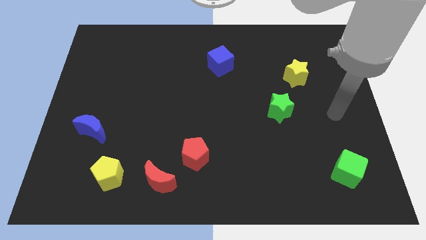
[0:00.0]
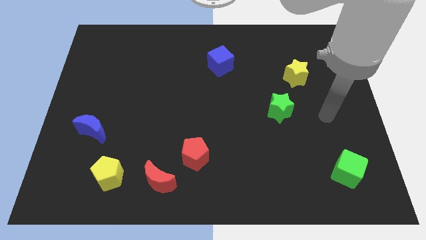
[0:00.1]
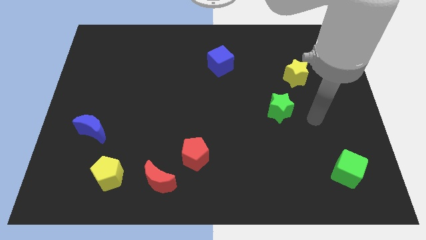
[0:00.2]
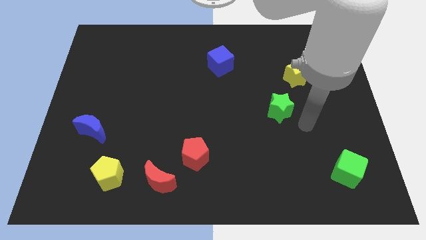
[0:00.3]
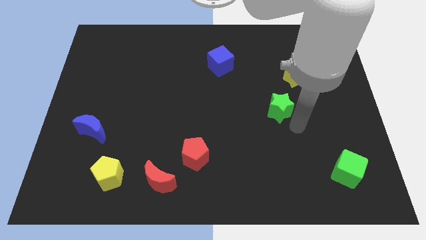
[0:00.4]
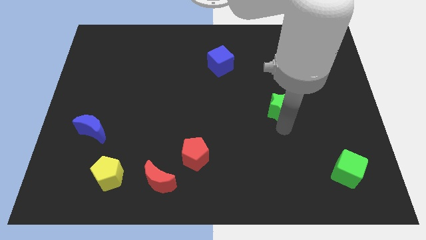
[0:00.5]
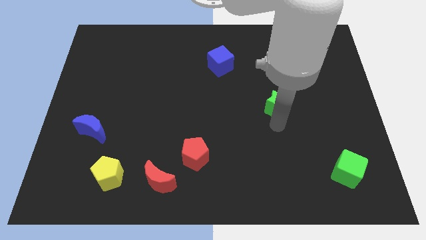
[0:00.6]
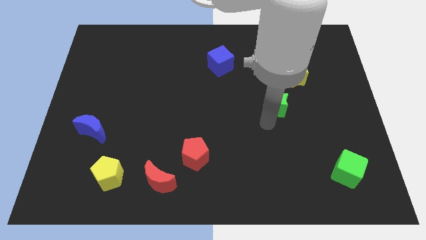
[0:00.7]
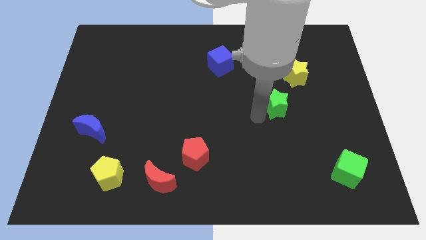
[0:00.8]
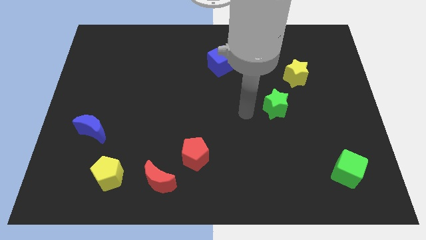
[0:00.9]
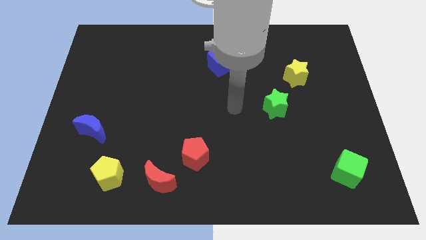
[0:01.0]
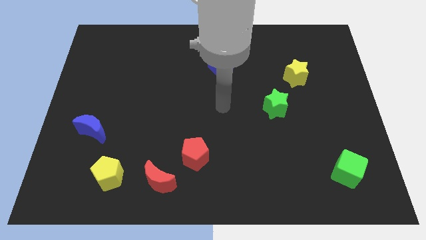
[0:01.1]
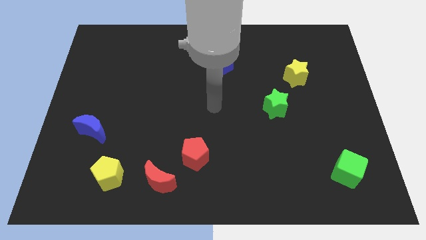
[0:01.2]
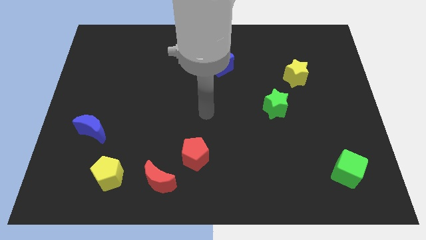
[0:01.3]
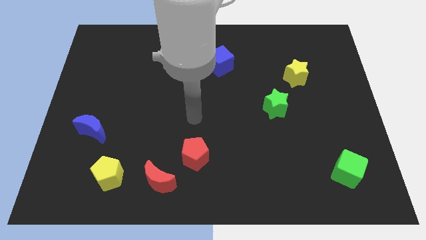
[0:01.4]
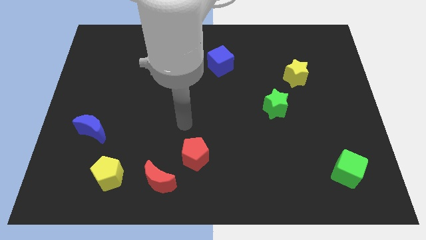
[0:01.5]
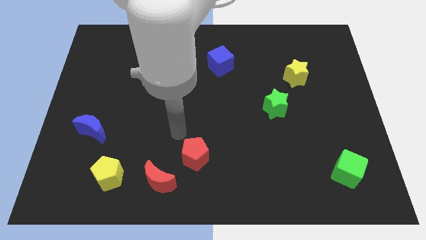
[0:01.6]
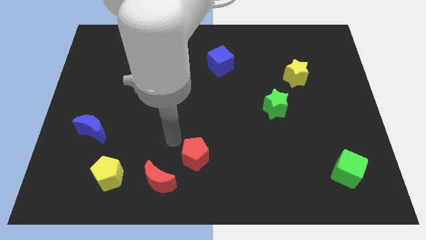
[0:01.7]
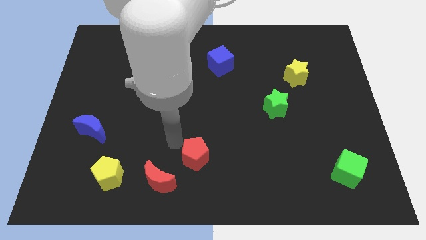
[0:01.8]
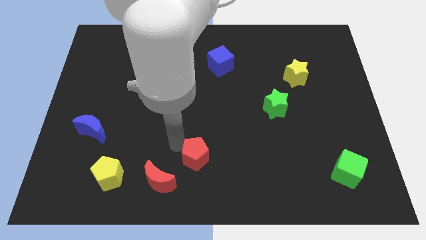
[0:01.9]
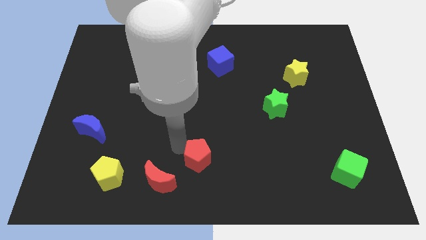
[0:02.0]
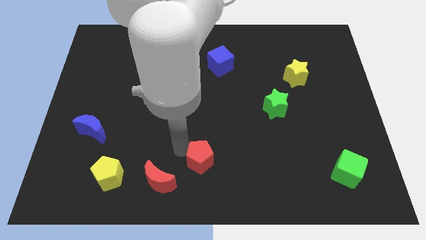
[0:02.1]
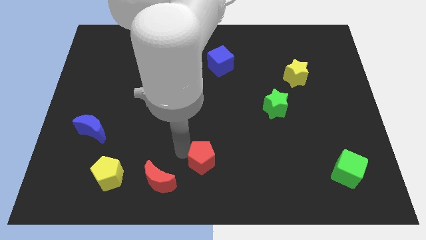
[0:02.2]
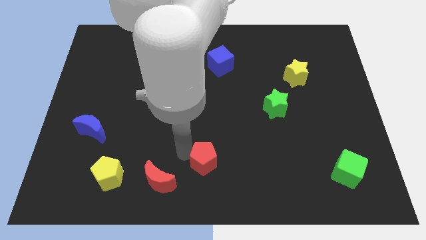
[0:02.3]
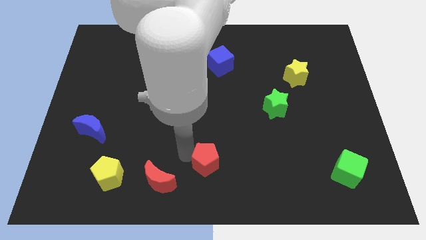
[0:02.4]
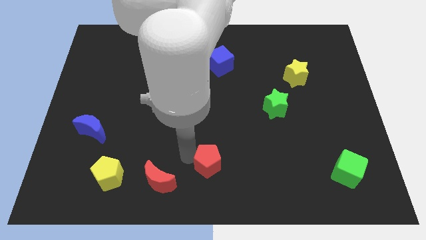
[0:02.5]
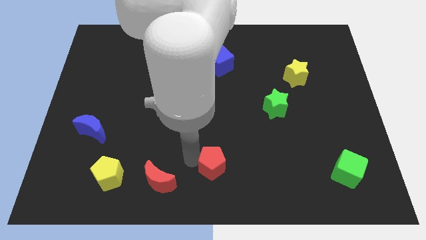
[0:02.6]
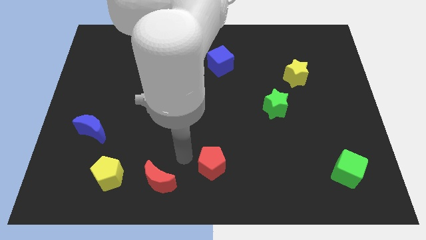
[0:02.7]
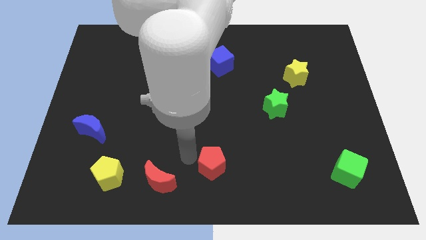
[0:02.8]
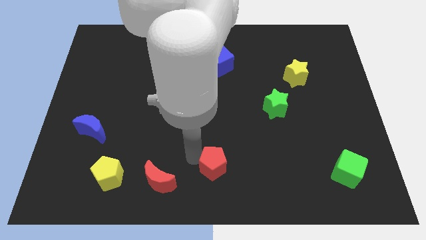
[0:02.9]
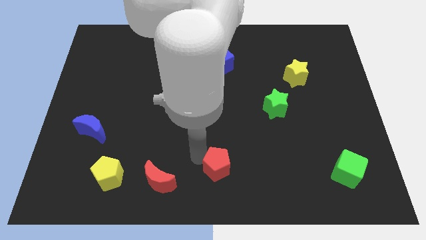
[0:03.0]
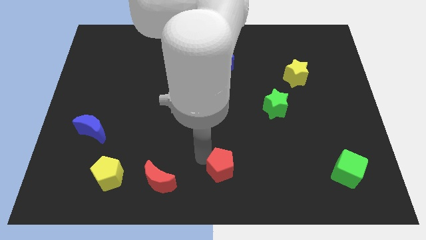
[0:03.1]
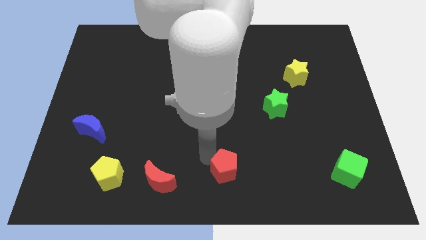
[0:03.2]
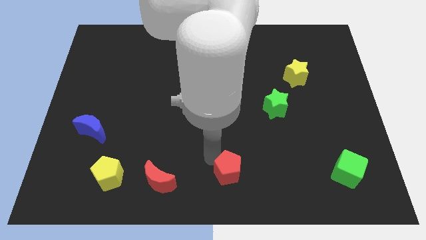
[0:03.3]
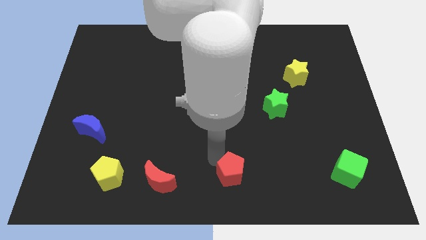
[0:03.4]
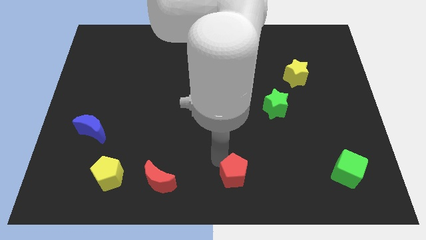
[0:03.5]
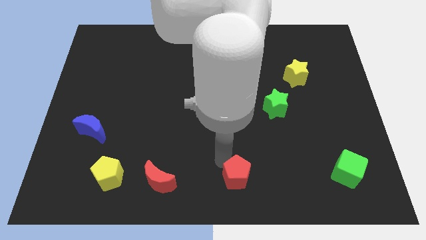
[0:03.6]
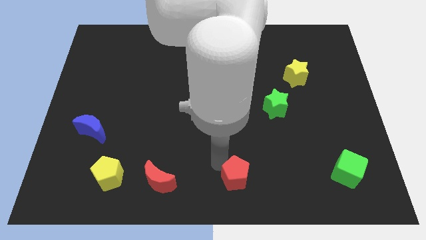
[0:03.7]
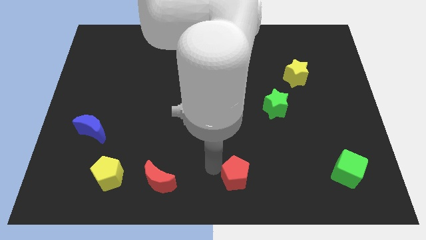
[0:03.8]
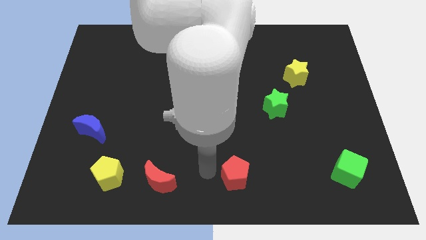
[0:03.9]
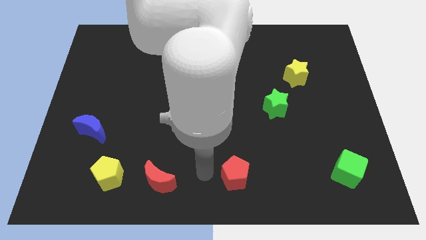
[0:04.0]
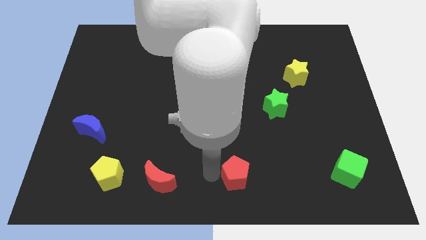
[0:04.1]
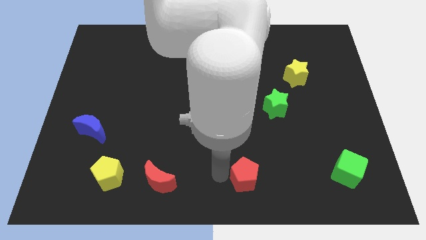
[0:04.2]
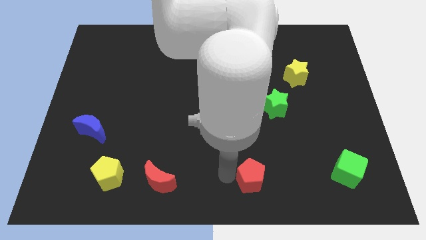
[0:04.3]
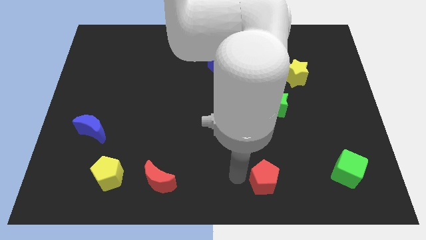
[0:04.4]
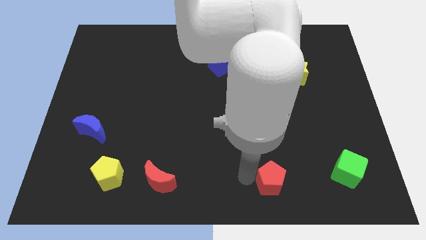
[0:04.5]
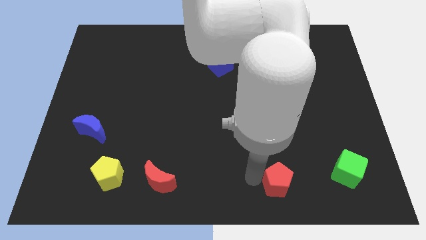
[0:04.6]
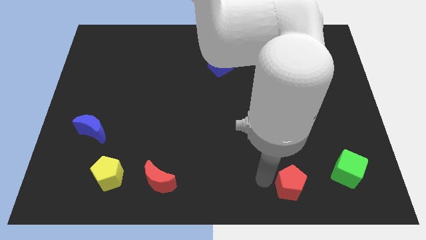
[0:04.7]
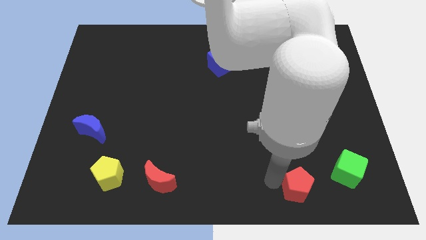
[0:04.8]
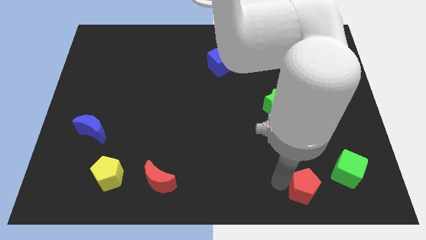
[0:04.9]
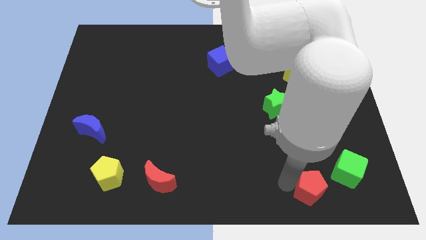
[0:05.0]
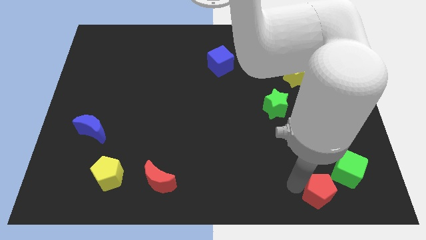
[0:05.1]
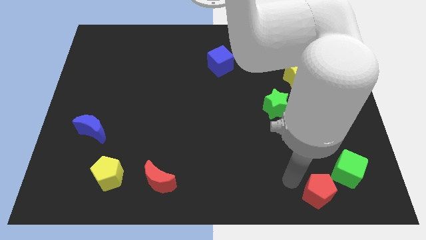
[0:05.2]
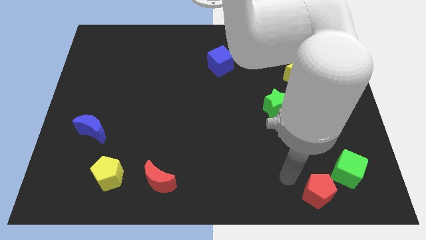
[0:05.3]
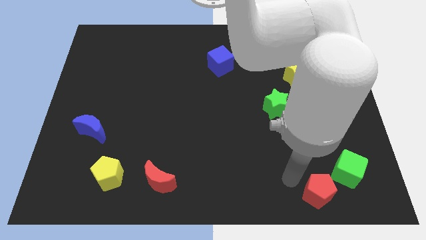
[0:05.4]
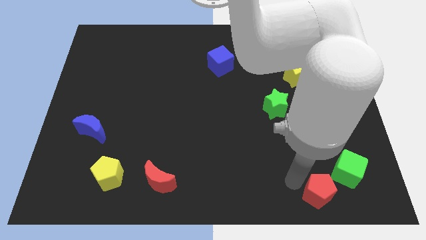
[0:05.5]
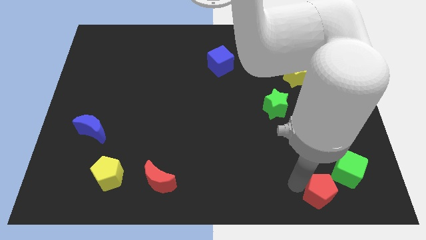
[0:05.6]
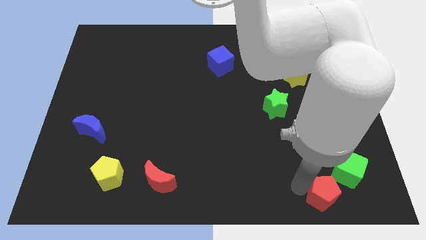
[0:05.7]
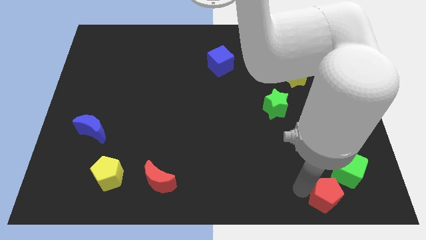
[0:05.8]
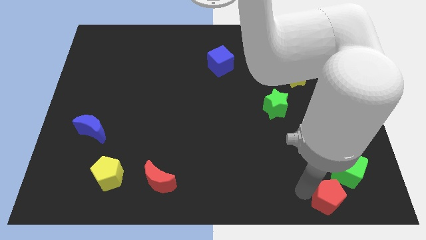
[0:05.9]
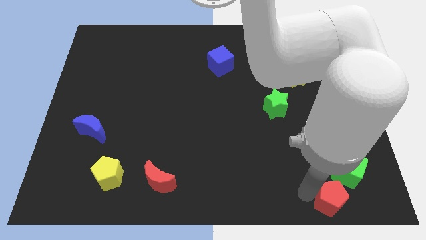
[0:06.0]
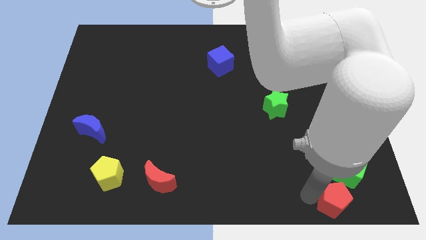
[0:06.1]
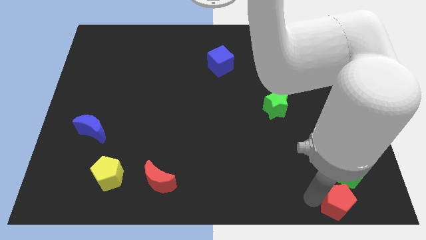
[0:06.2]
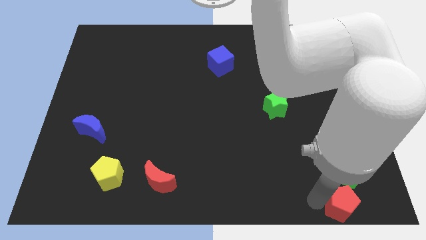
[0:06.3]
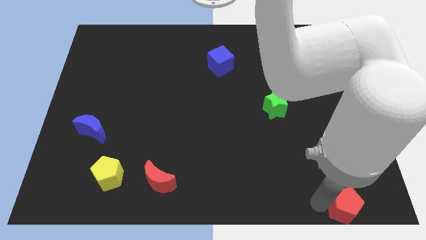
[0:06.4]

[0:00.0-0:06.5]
move the red pentagon to the lower right corner
